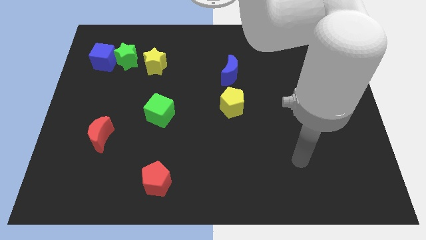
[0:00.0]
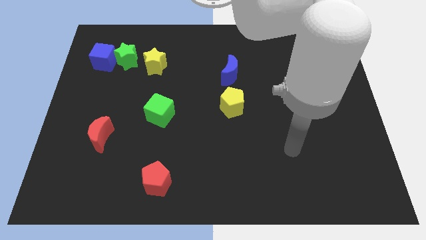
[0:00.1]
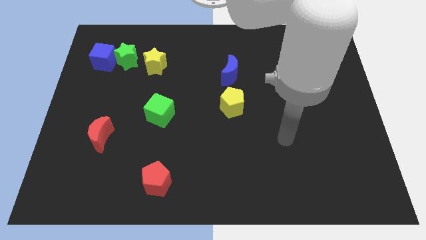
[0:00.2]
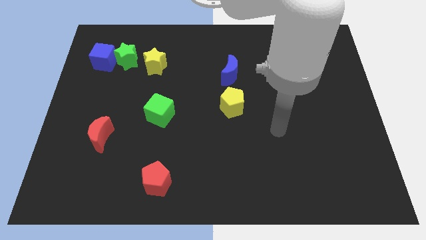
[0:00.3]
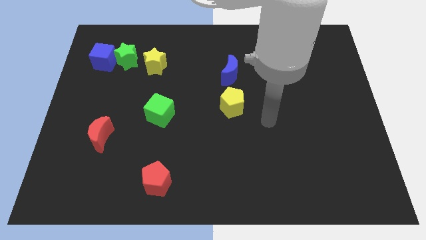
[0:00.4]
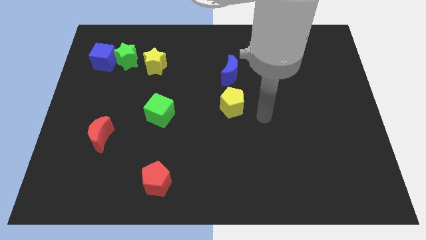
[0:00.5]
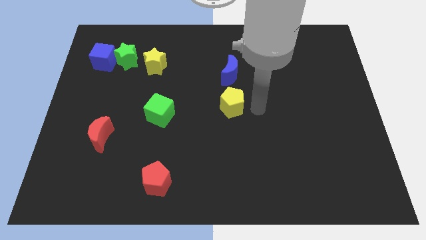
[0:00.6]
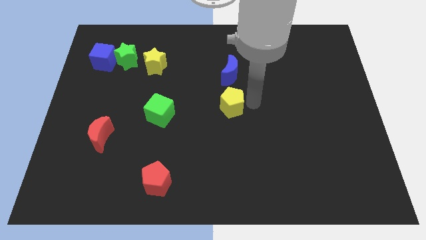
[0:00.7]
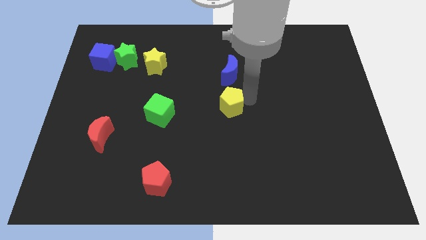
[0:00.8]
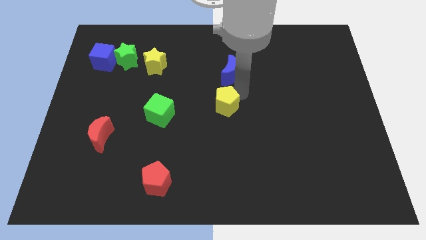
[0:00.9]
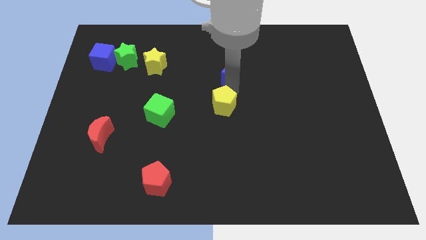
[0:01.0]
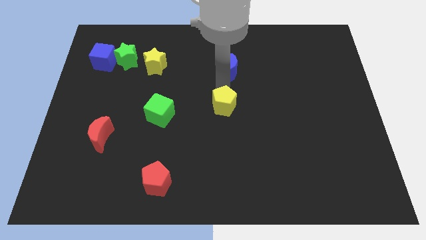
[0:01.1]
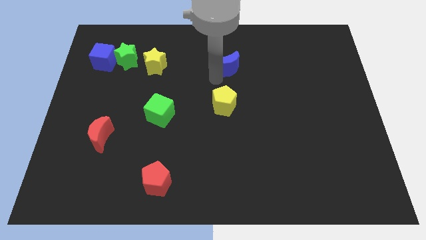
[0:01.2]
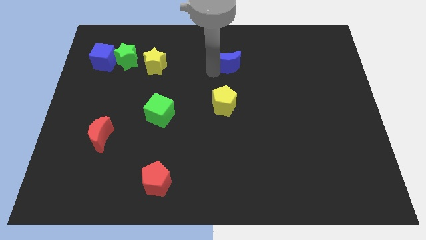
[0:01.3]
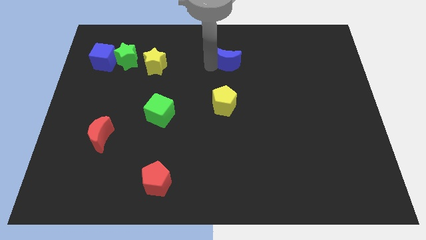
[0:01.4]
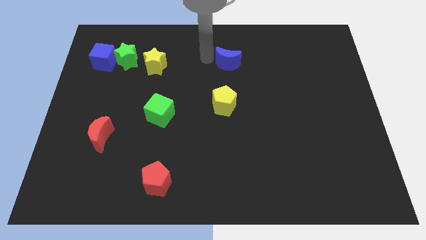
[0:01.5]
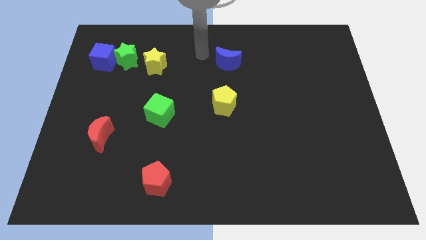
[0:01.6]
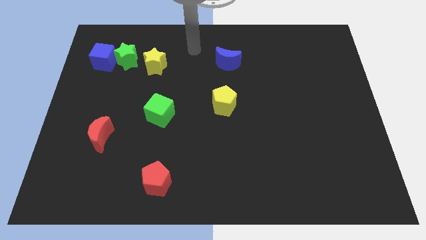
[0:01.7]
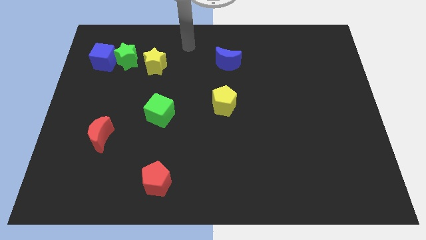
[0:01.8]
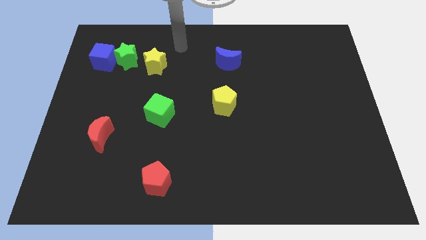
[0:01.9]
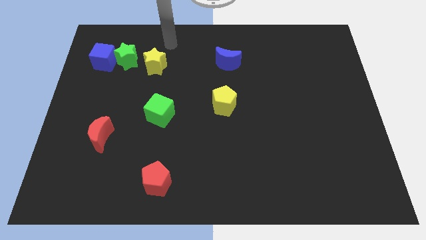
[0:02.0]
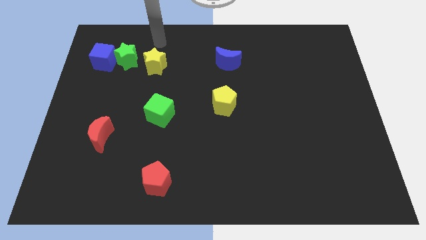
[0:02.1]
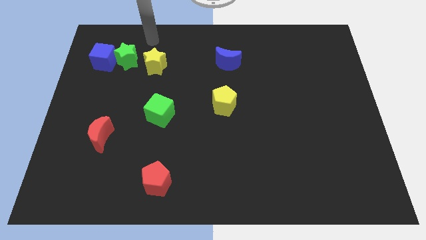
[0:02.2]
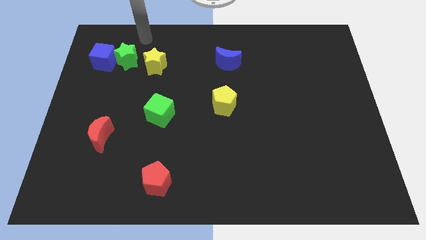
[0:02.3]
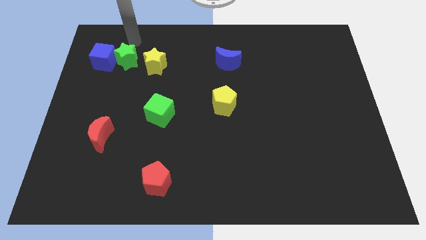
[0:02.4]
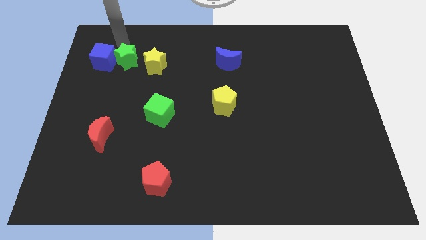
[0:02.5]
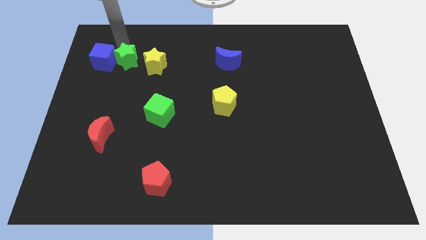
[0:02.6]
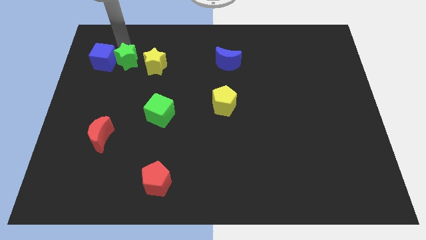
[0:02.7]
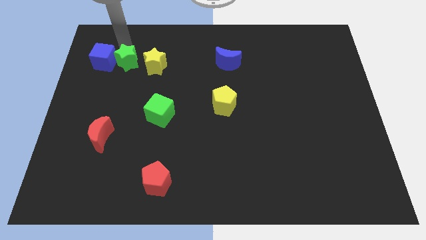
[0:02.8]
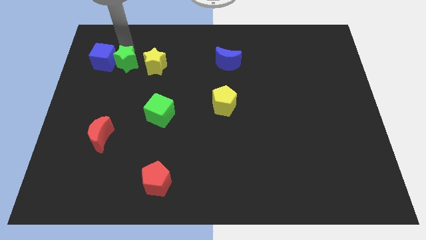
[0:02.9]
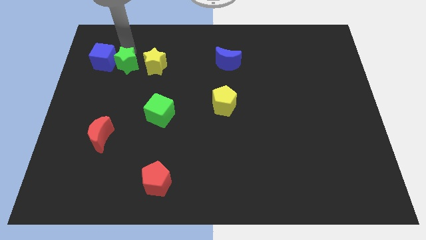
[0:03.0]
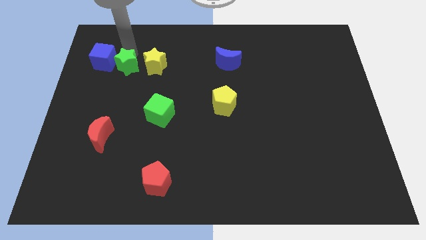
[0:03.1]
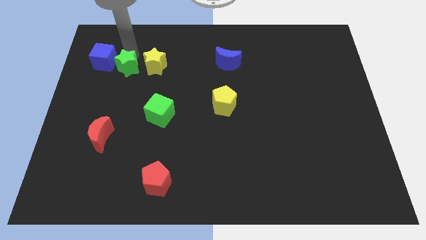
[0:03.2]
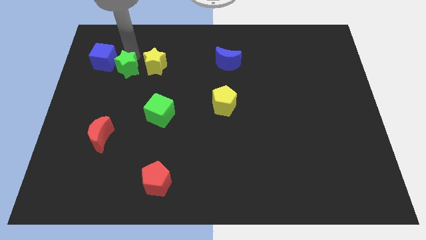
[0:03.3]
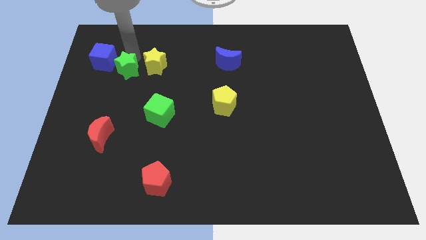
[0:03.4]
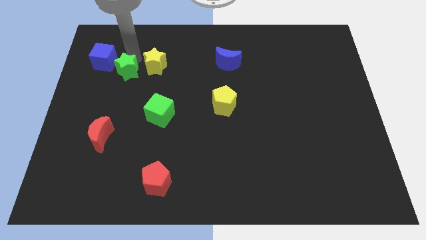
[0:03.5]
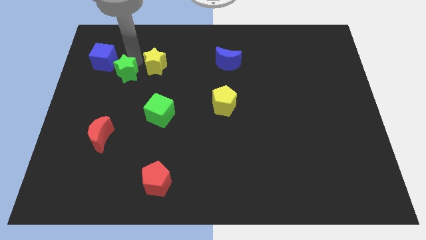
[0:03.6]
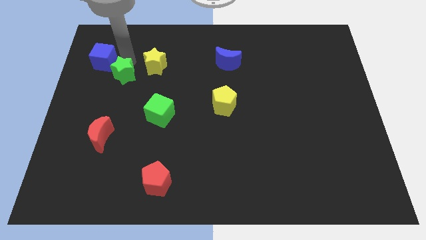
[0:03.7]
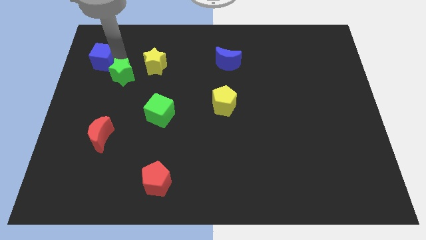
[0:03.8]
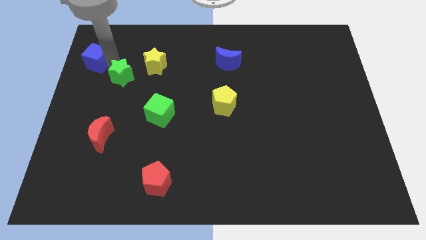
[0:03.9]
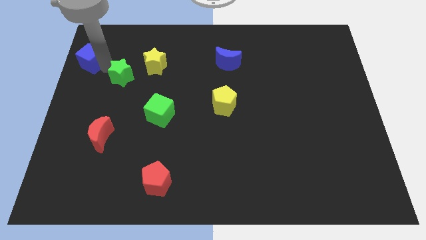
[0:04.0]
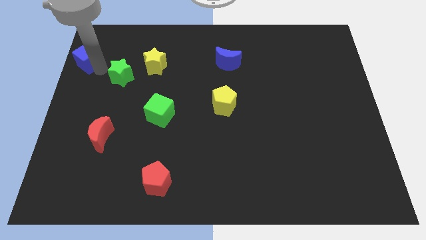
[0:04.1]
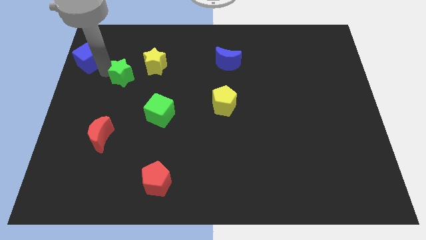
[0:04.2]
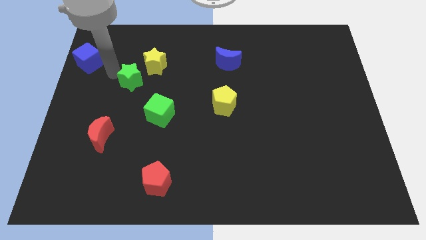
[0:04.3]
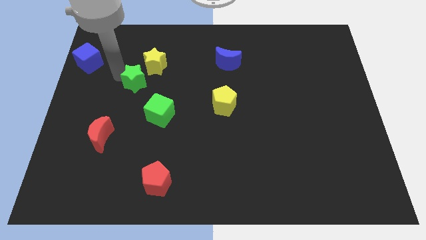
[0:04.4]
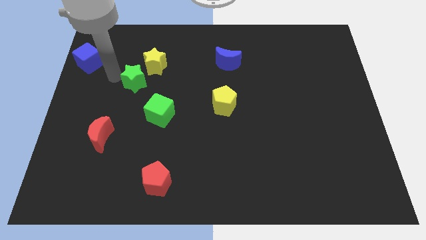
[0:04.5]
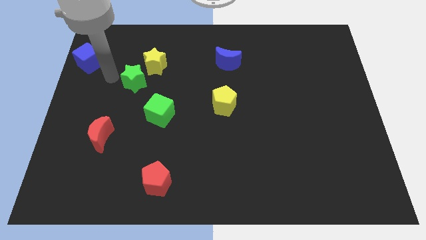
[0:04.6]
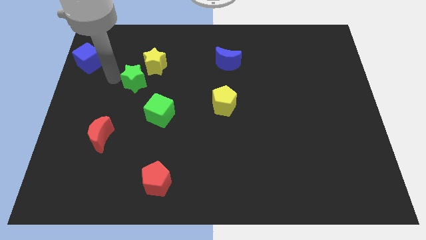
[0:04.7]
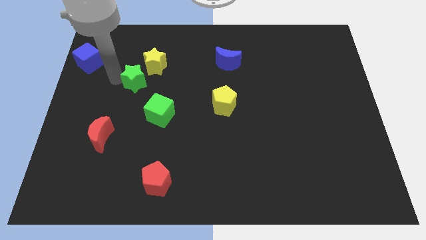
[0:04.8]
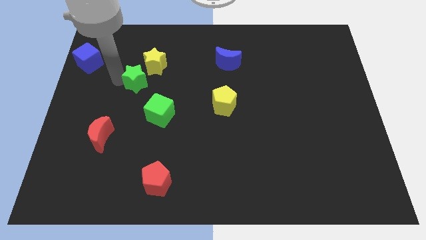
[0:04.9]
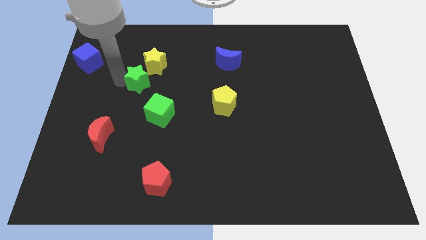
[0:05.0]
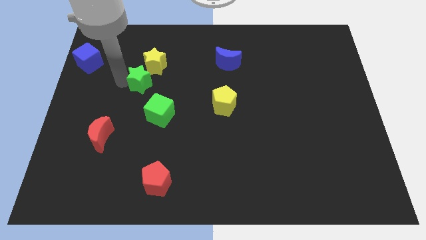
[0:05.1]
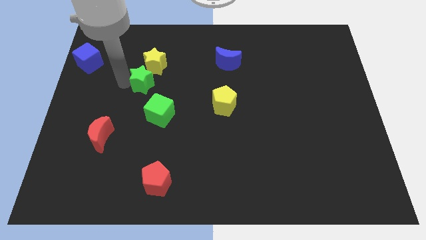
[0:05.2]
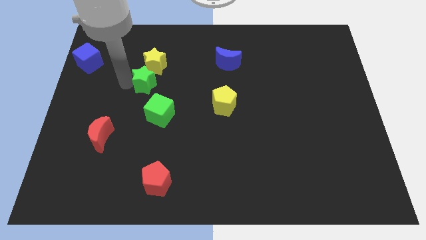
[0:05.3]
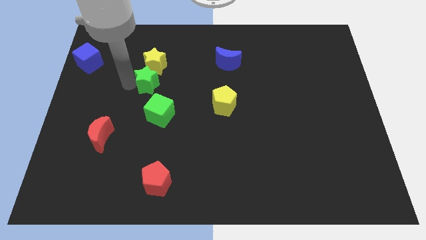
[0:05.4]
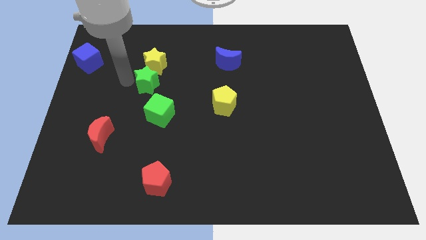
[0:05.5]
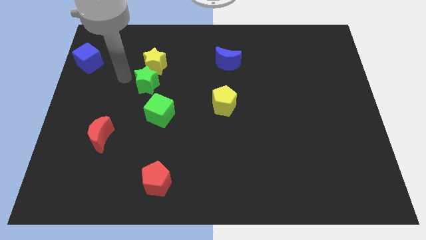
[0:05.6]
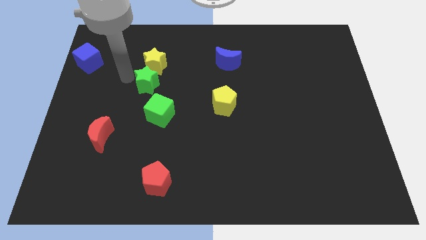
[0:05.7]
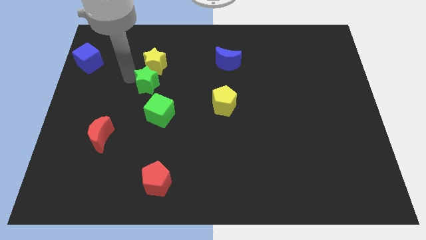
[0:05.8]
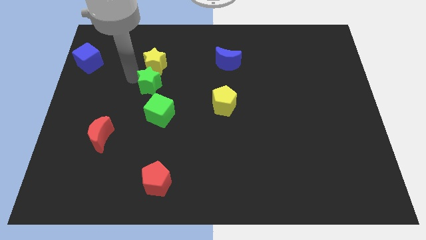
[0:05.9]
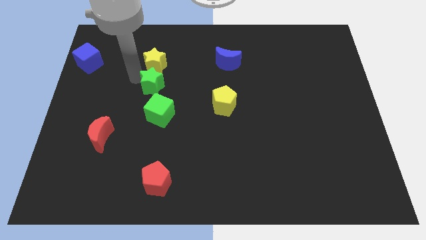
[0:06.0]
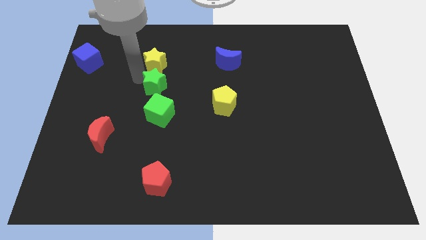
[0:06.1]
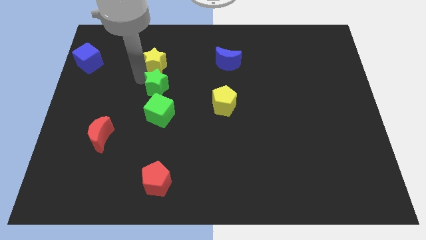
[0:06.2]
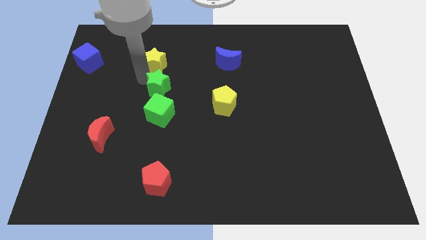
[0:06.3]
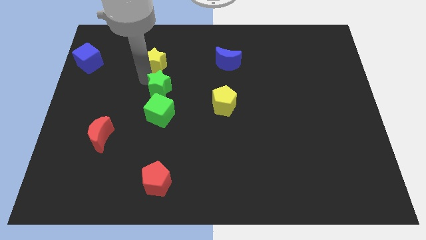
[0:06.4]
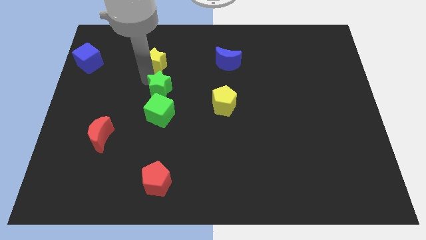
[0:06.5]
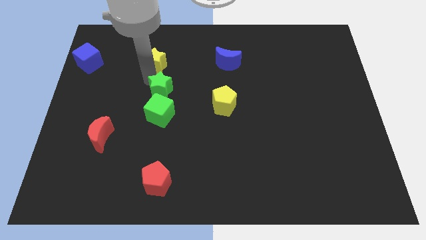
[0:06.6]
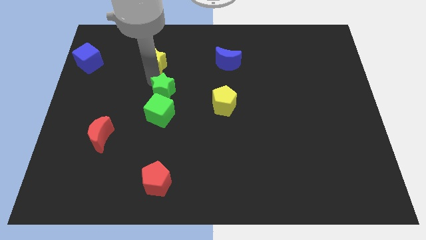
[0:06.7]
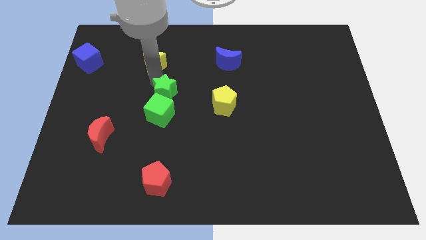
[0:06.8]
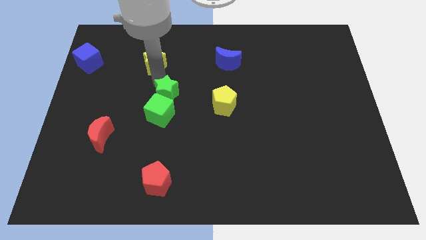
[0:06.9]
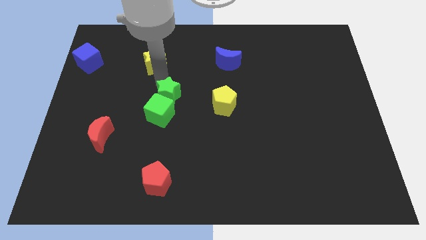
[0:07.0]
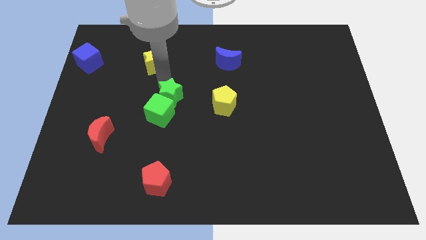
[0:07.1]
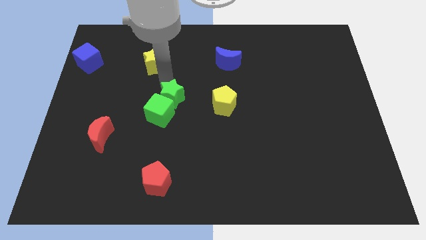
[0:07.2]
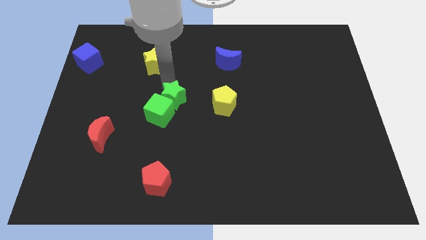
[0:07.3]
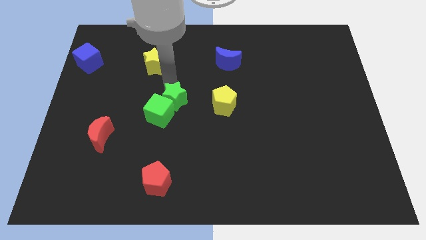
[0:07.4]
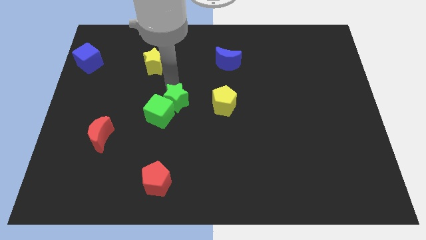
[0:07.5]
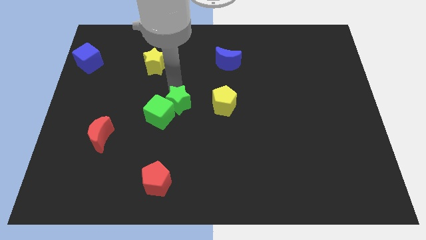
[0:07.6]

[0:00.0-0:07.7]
push the green star down and then right
